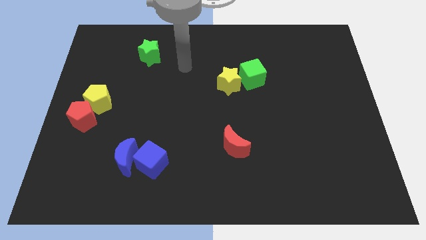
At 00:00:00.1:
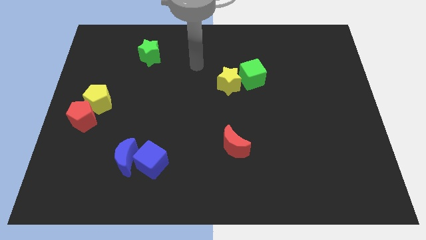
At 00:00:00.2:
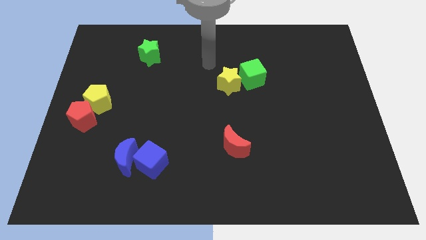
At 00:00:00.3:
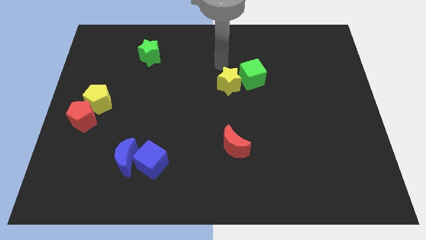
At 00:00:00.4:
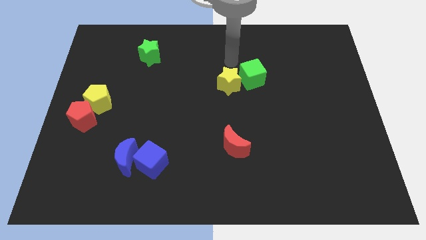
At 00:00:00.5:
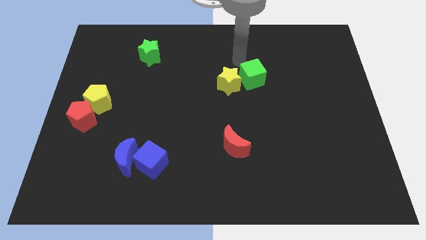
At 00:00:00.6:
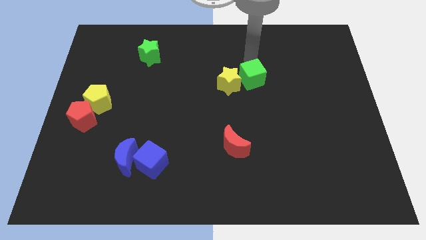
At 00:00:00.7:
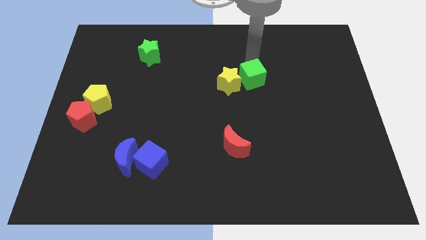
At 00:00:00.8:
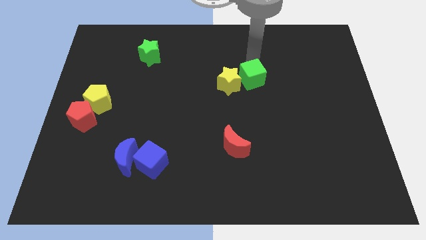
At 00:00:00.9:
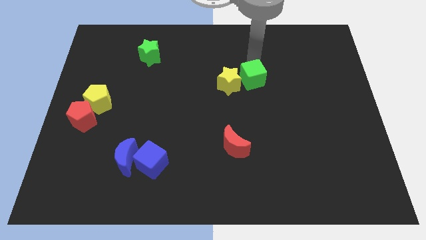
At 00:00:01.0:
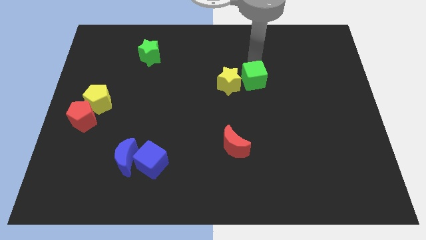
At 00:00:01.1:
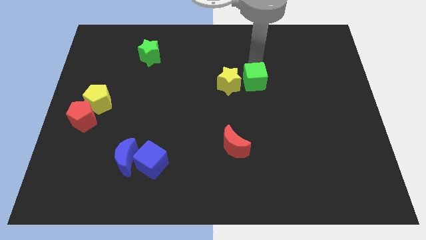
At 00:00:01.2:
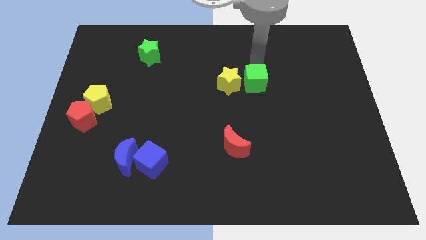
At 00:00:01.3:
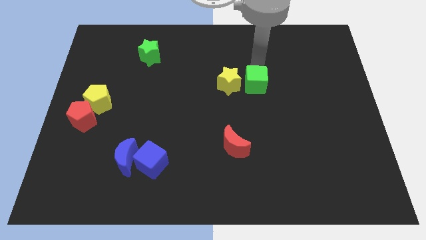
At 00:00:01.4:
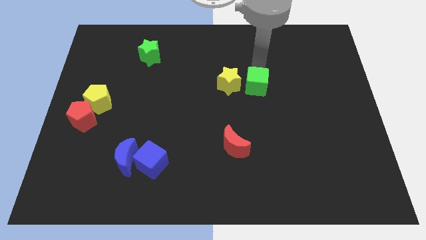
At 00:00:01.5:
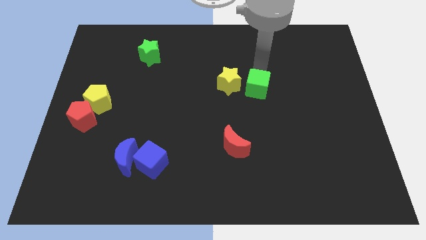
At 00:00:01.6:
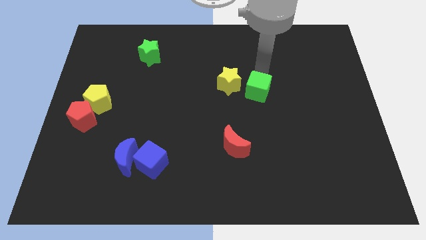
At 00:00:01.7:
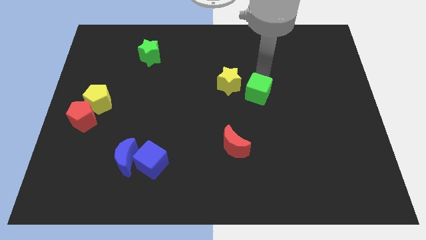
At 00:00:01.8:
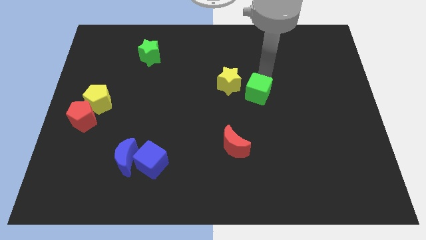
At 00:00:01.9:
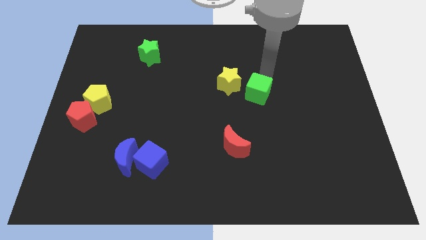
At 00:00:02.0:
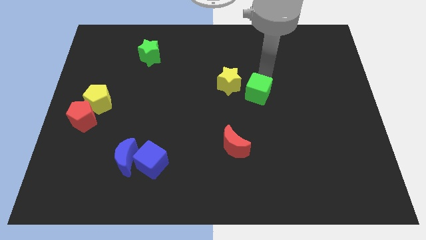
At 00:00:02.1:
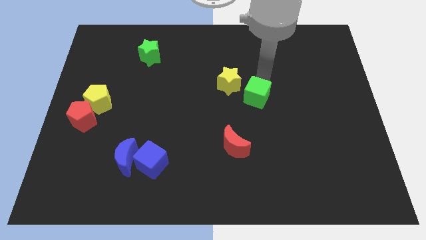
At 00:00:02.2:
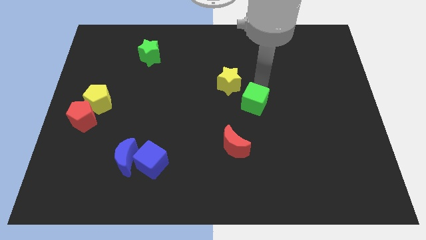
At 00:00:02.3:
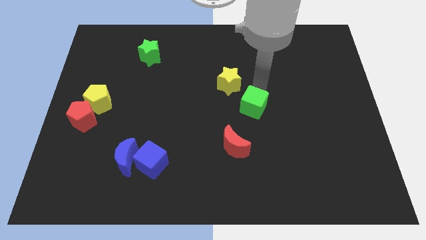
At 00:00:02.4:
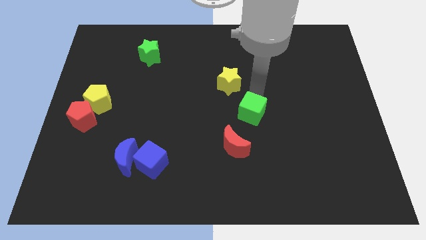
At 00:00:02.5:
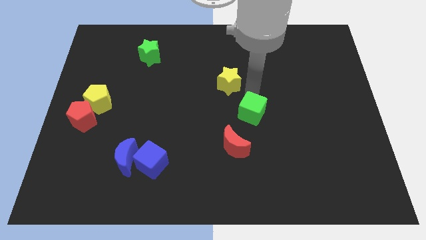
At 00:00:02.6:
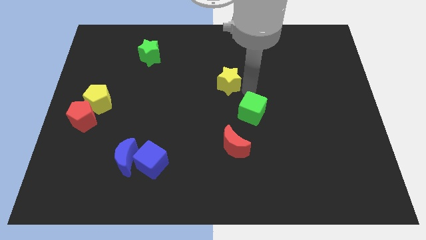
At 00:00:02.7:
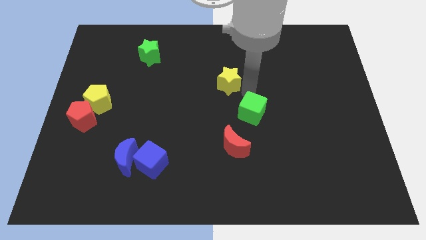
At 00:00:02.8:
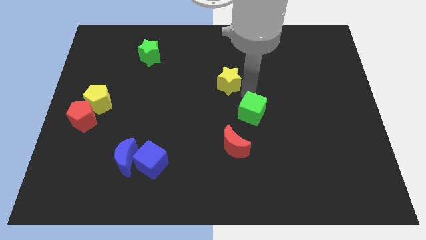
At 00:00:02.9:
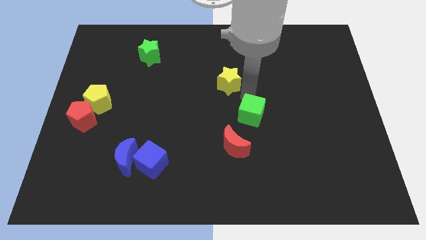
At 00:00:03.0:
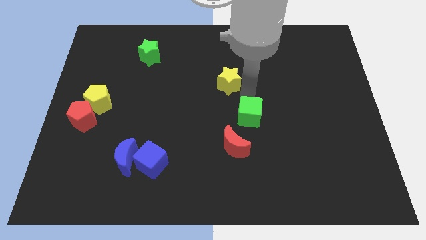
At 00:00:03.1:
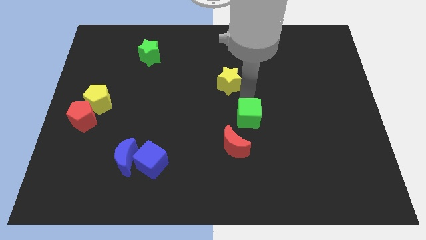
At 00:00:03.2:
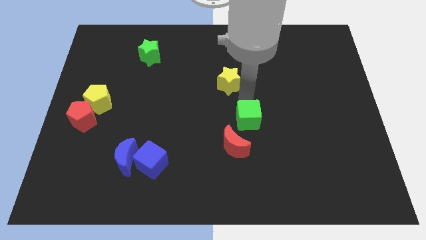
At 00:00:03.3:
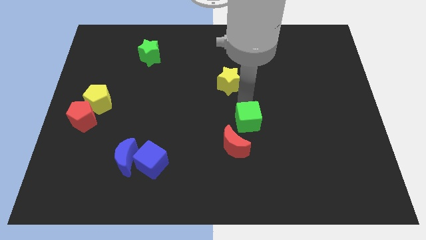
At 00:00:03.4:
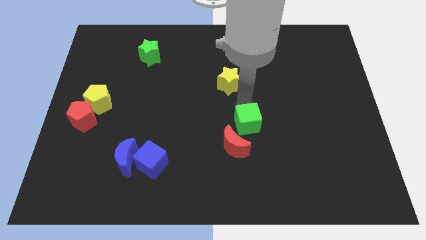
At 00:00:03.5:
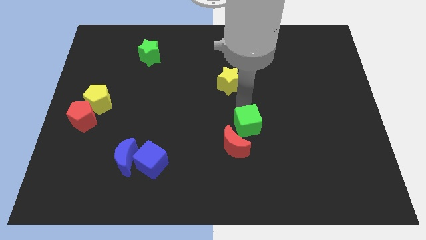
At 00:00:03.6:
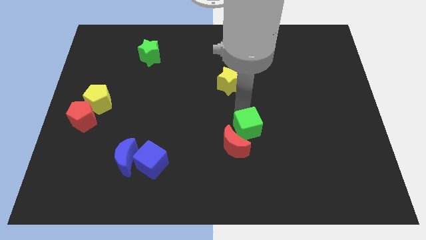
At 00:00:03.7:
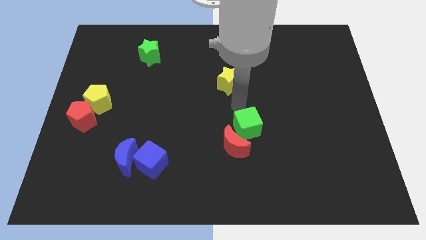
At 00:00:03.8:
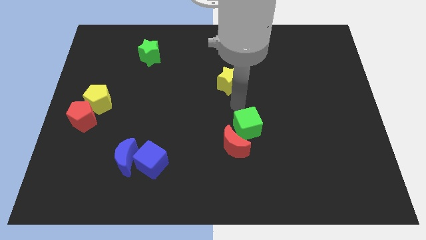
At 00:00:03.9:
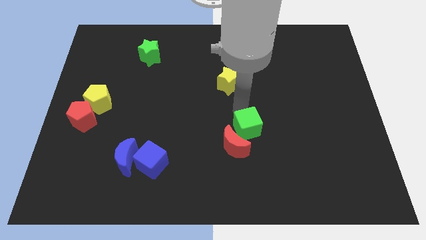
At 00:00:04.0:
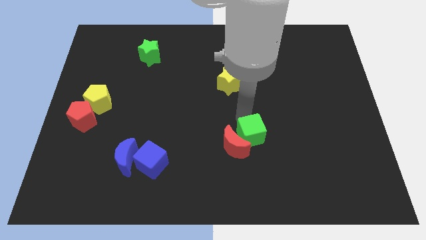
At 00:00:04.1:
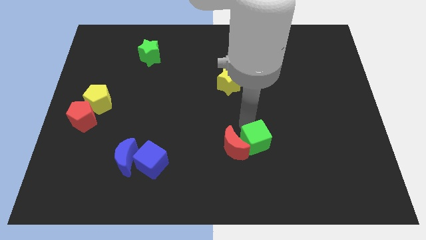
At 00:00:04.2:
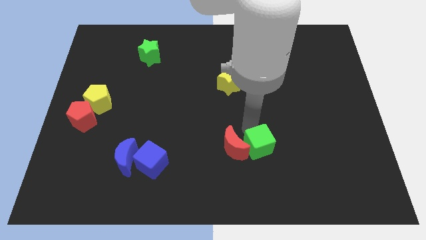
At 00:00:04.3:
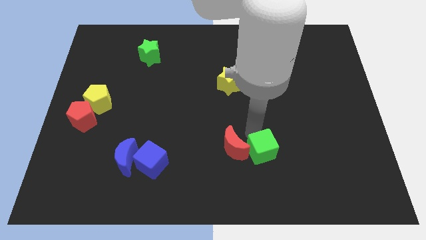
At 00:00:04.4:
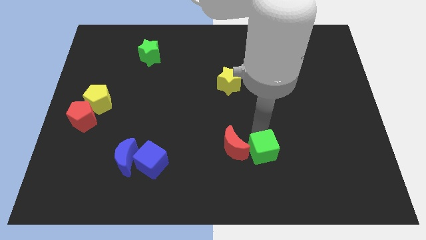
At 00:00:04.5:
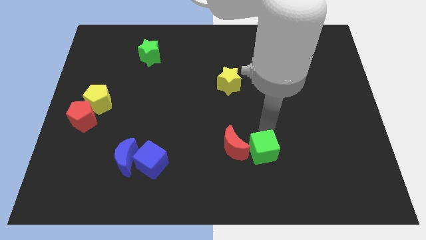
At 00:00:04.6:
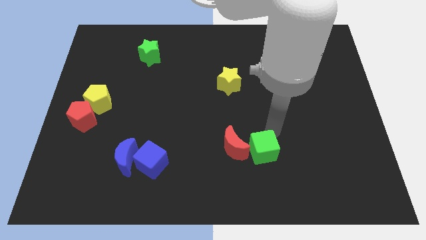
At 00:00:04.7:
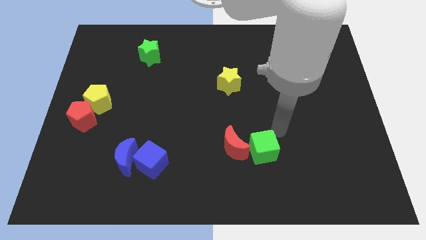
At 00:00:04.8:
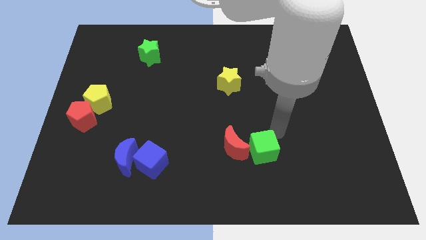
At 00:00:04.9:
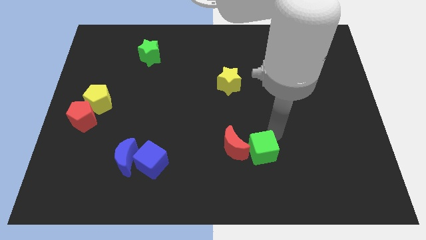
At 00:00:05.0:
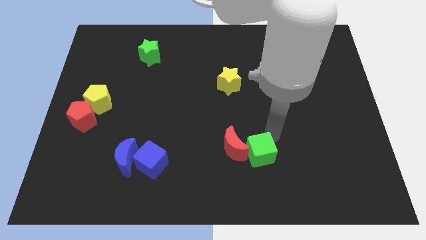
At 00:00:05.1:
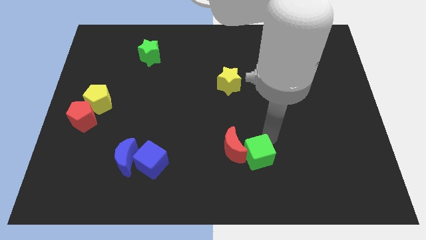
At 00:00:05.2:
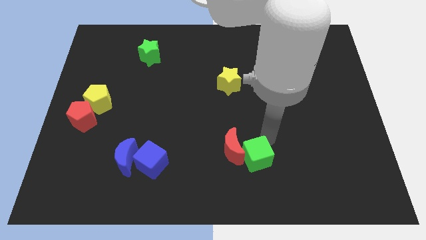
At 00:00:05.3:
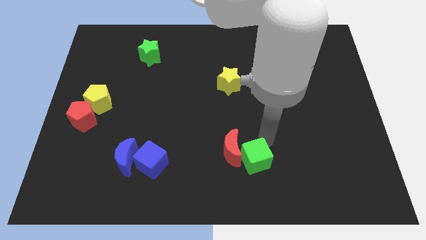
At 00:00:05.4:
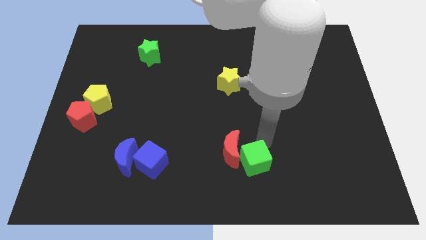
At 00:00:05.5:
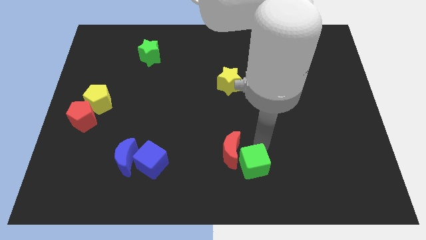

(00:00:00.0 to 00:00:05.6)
slide the green cube to the bottom side

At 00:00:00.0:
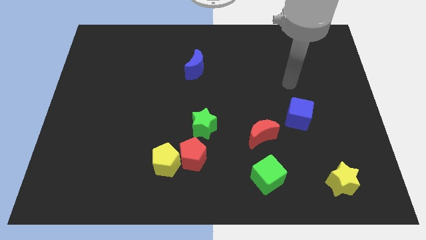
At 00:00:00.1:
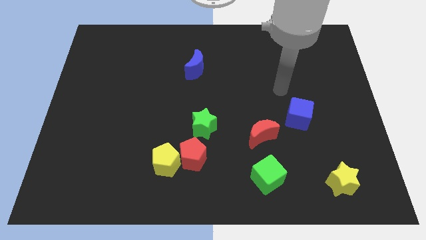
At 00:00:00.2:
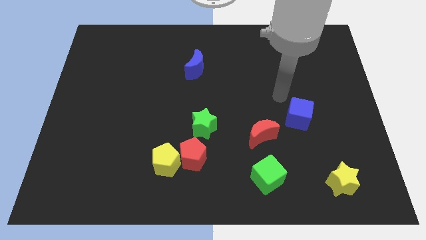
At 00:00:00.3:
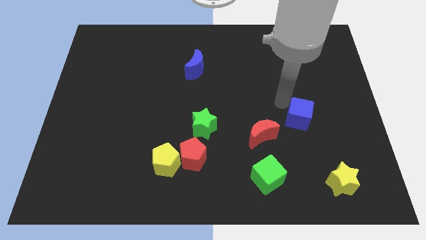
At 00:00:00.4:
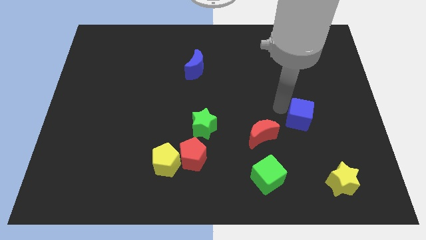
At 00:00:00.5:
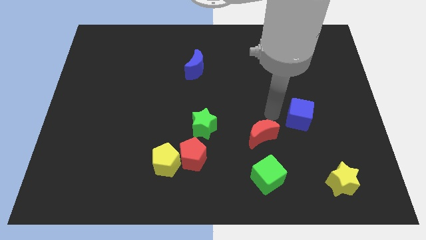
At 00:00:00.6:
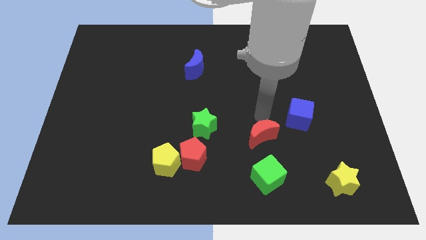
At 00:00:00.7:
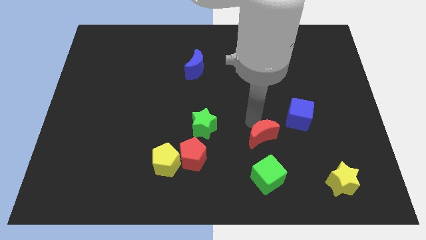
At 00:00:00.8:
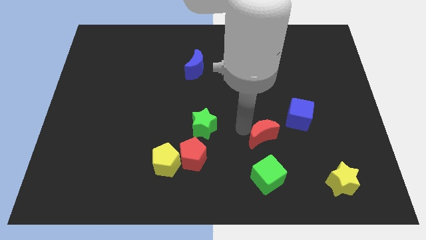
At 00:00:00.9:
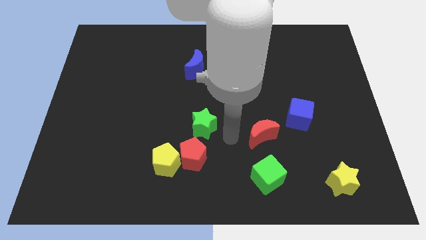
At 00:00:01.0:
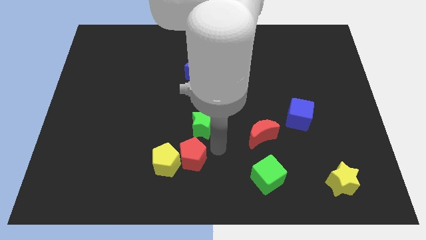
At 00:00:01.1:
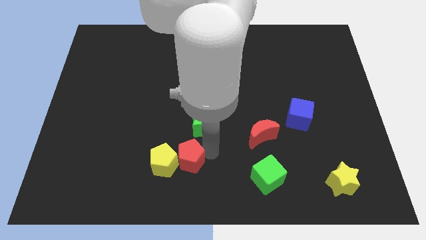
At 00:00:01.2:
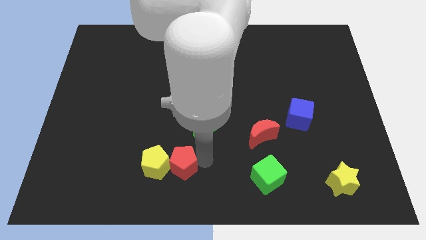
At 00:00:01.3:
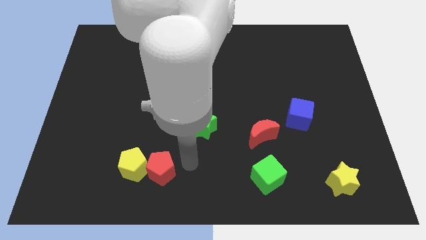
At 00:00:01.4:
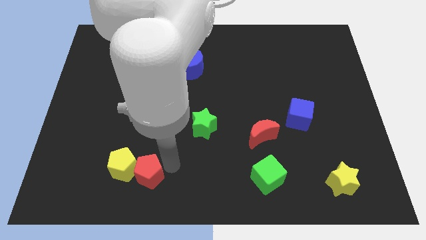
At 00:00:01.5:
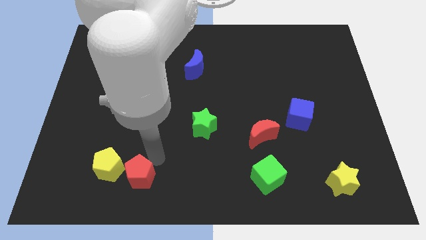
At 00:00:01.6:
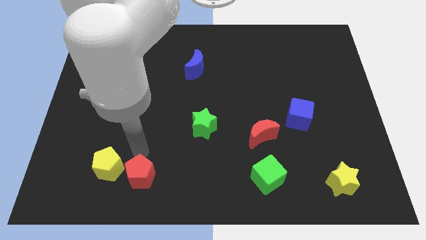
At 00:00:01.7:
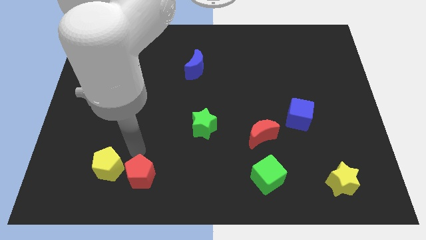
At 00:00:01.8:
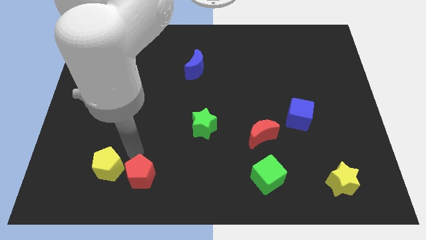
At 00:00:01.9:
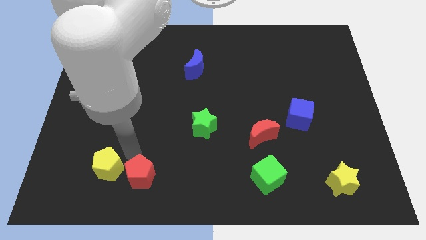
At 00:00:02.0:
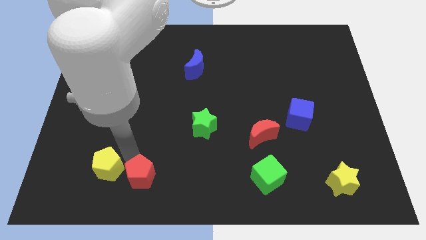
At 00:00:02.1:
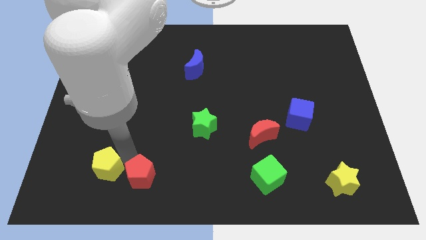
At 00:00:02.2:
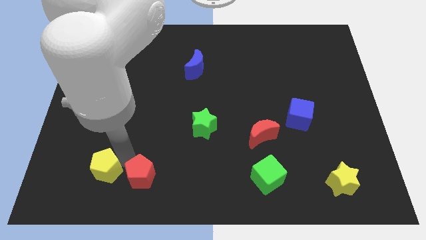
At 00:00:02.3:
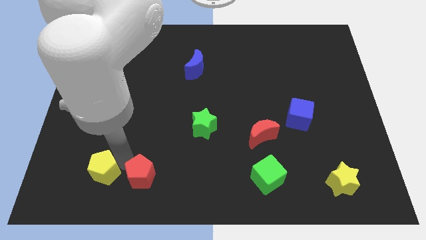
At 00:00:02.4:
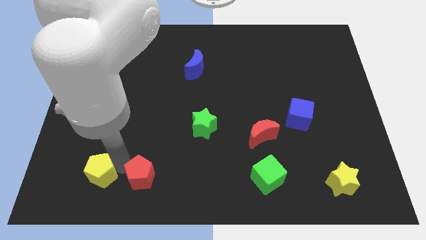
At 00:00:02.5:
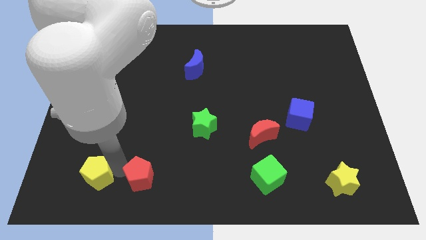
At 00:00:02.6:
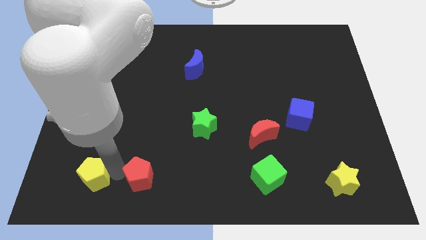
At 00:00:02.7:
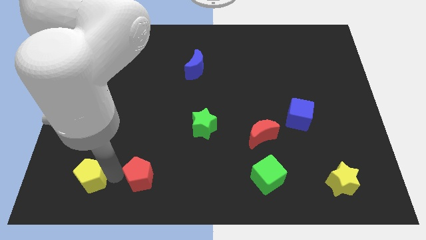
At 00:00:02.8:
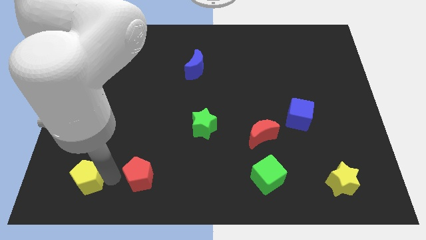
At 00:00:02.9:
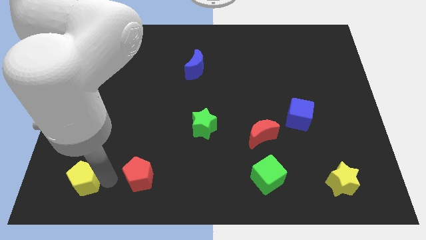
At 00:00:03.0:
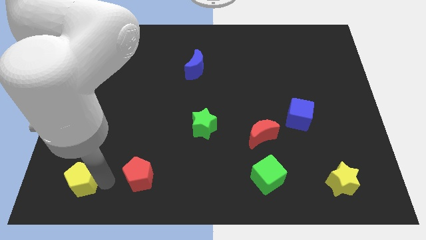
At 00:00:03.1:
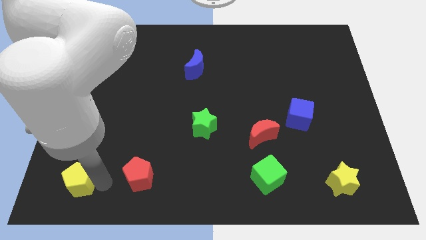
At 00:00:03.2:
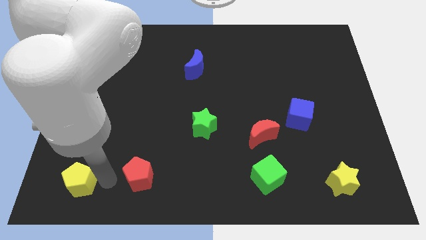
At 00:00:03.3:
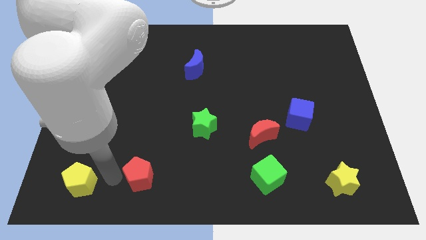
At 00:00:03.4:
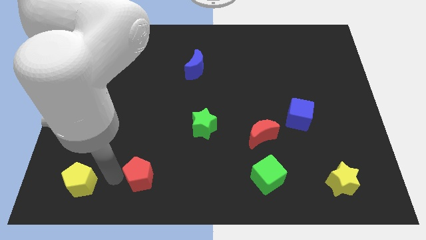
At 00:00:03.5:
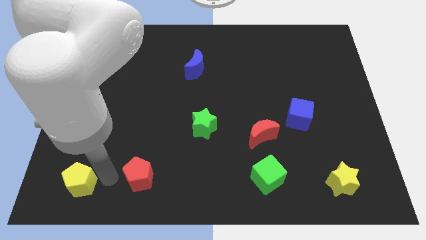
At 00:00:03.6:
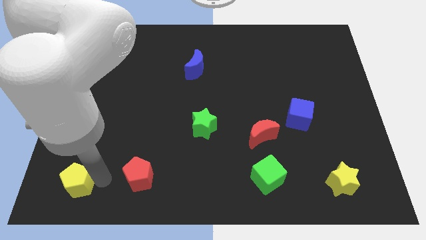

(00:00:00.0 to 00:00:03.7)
move the yellow pentagon to the bottom left corner
